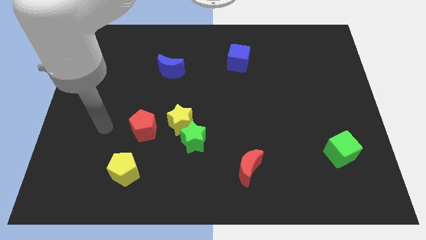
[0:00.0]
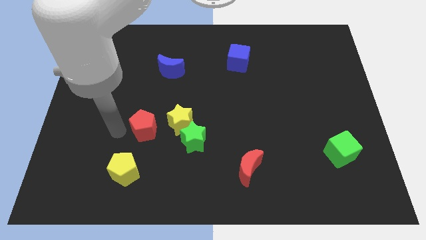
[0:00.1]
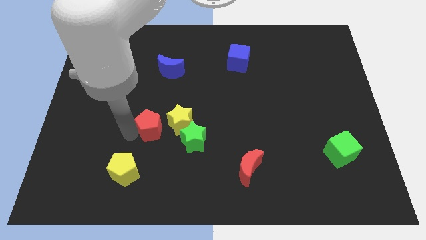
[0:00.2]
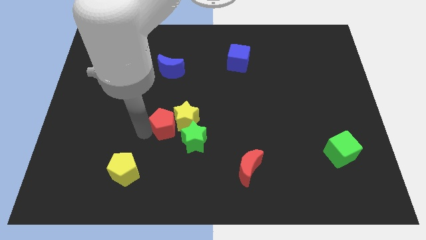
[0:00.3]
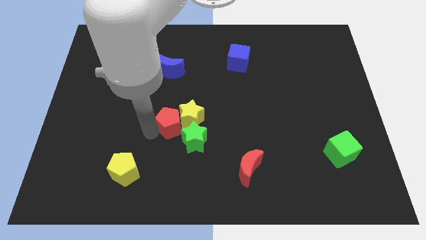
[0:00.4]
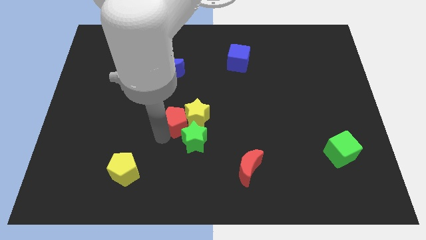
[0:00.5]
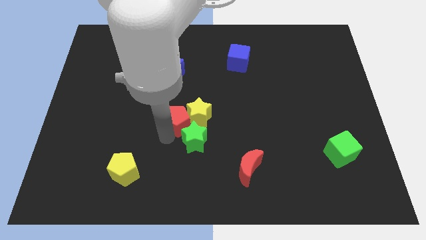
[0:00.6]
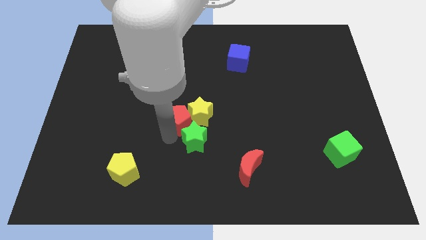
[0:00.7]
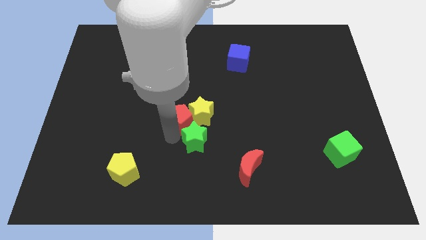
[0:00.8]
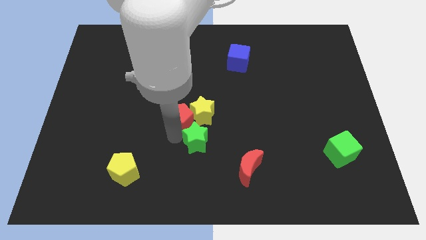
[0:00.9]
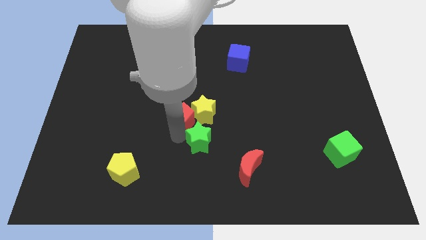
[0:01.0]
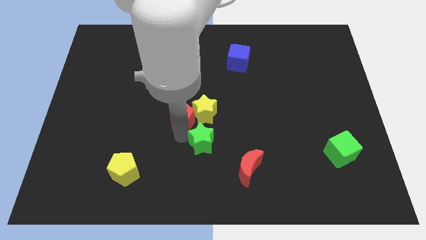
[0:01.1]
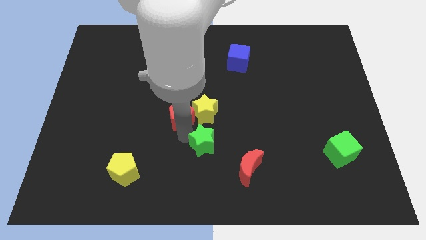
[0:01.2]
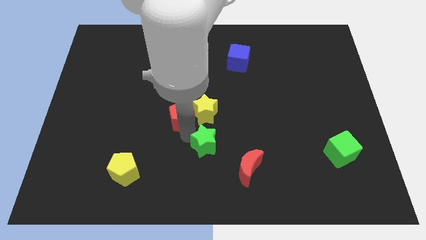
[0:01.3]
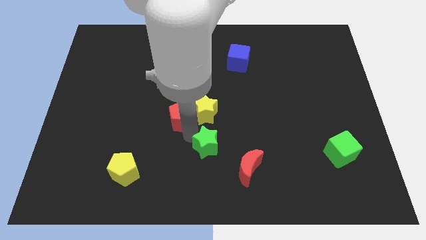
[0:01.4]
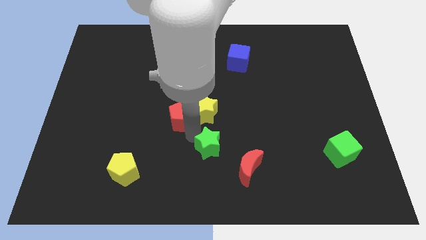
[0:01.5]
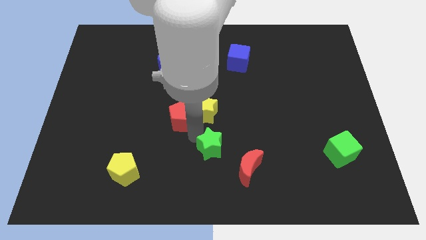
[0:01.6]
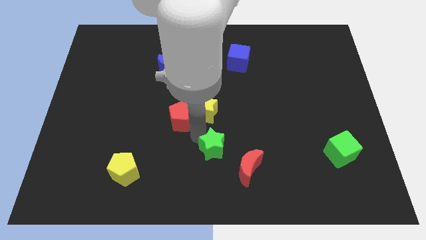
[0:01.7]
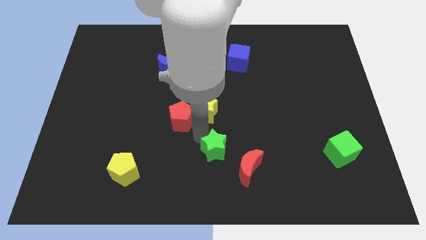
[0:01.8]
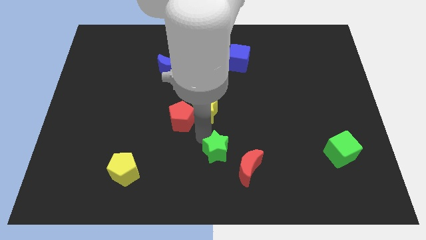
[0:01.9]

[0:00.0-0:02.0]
separate the green star from the yellow star

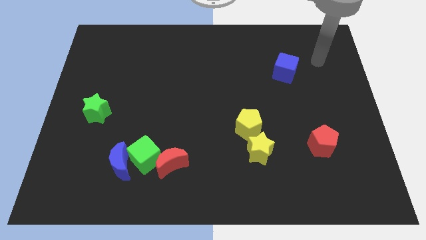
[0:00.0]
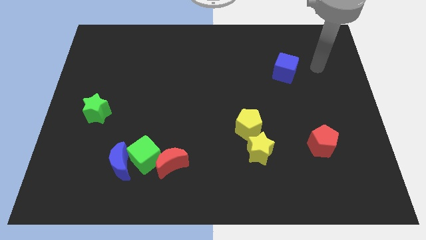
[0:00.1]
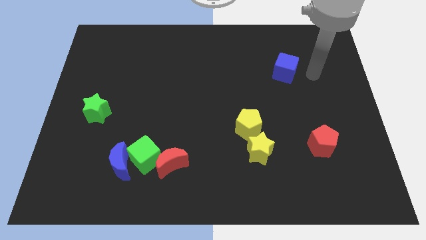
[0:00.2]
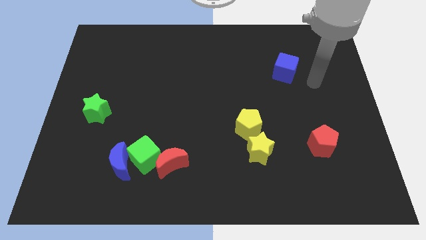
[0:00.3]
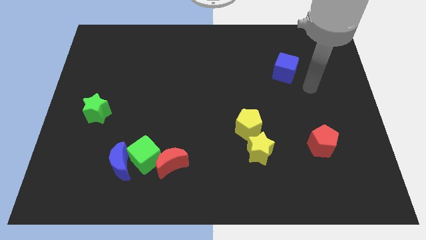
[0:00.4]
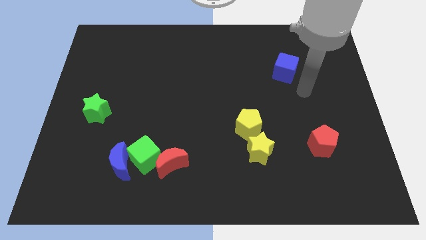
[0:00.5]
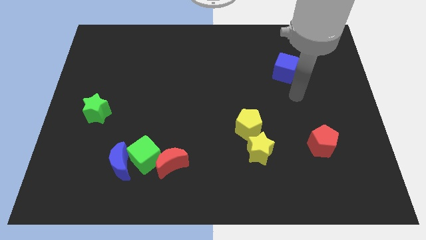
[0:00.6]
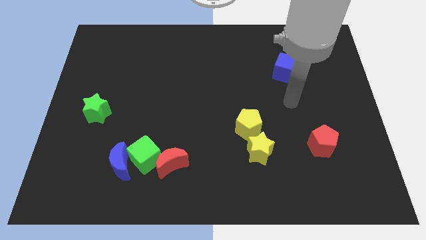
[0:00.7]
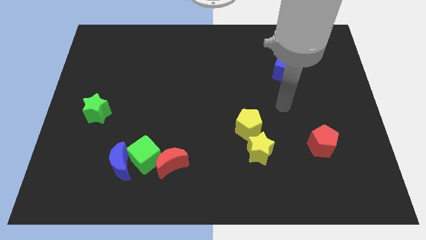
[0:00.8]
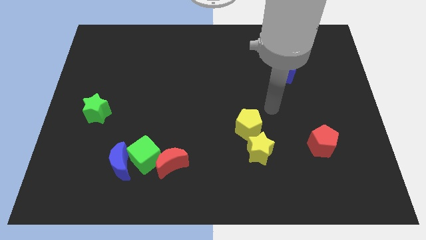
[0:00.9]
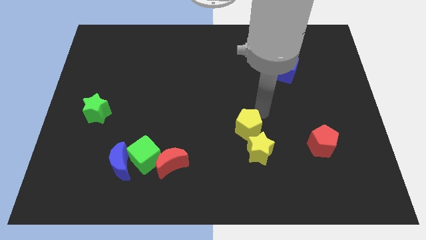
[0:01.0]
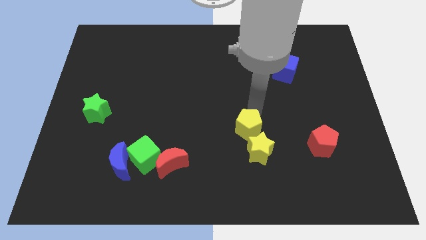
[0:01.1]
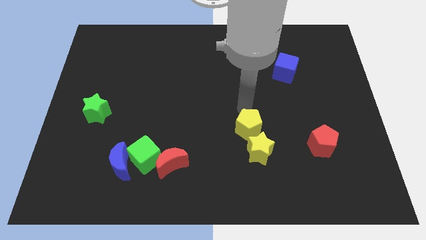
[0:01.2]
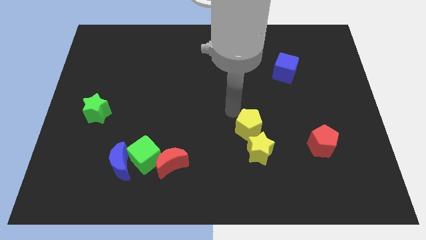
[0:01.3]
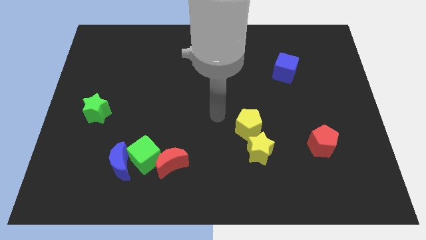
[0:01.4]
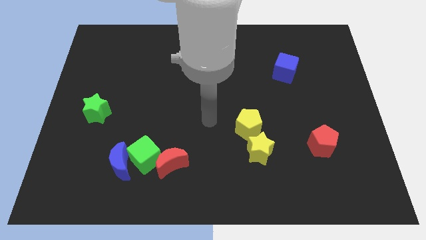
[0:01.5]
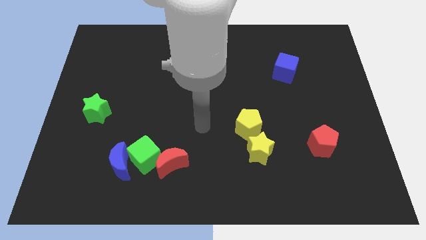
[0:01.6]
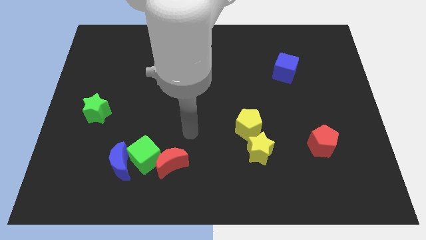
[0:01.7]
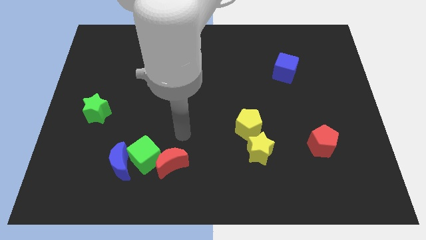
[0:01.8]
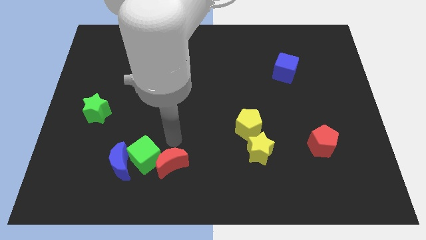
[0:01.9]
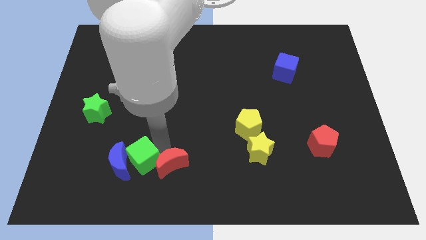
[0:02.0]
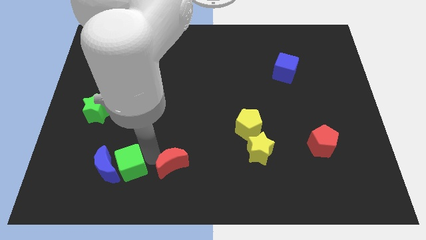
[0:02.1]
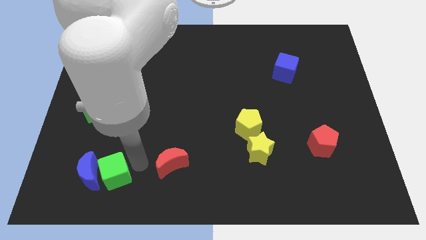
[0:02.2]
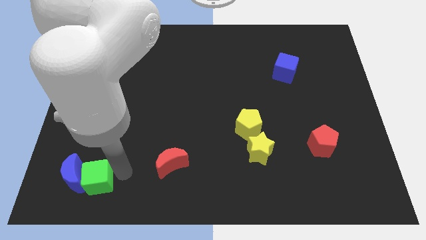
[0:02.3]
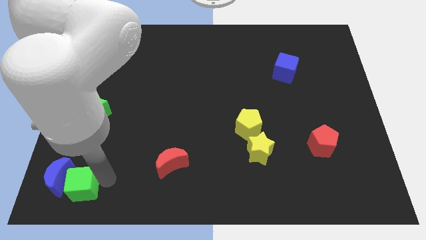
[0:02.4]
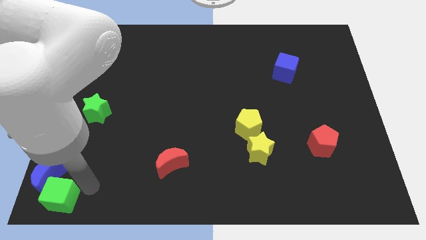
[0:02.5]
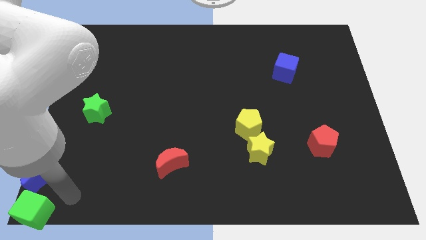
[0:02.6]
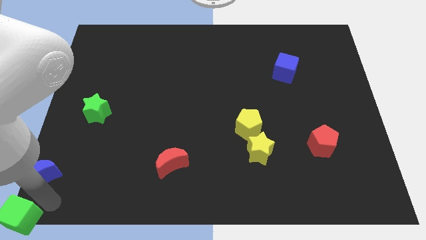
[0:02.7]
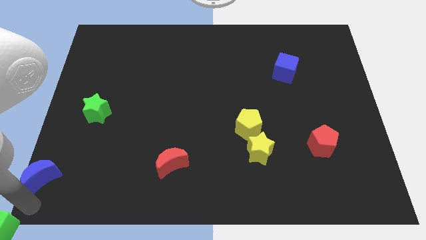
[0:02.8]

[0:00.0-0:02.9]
pull the blue moon apart from the green cube

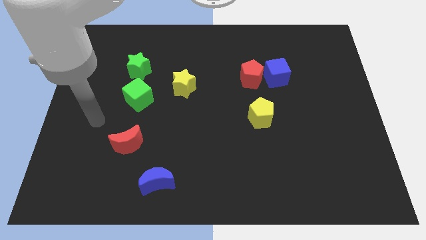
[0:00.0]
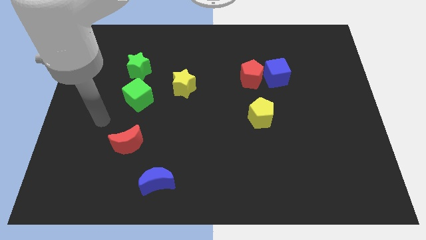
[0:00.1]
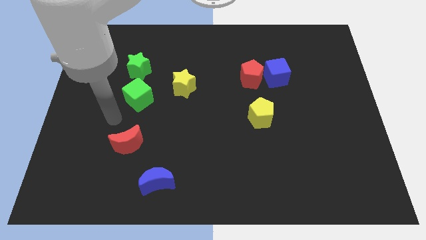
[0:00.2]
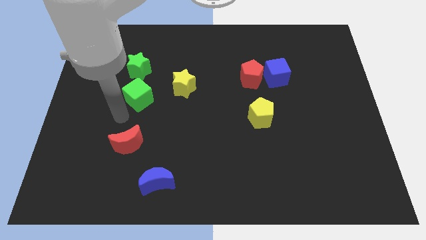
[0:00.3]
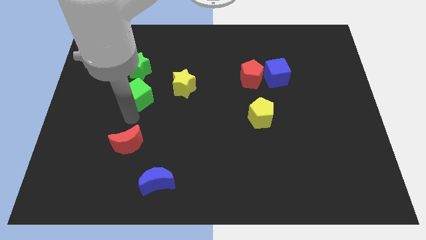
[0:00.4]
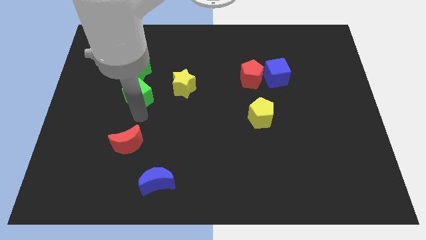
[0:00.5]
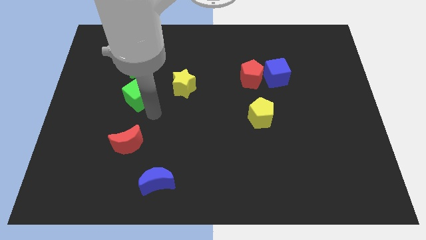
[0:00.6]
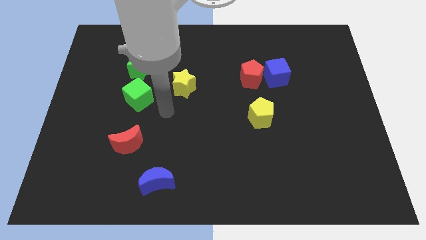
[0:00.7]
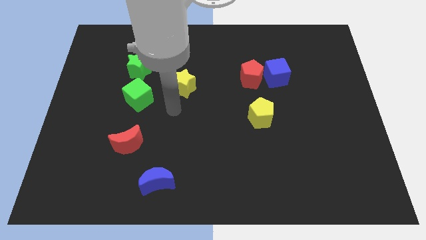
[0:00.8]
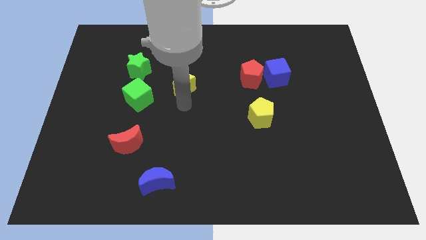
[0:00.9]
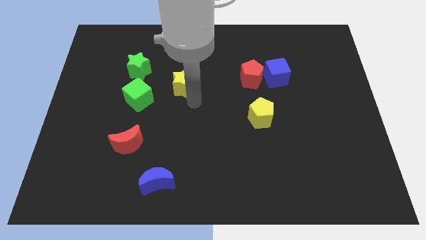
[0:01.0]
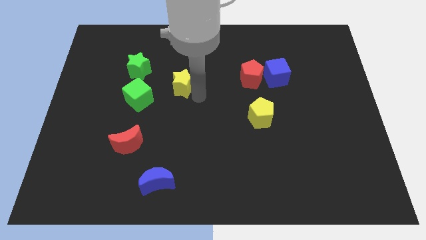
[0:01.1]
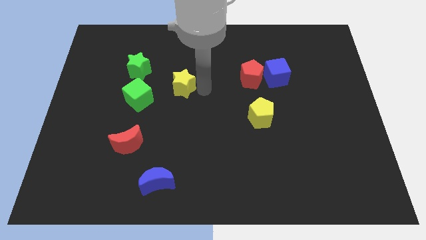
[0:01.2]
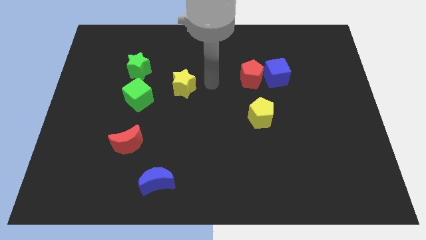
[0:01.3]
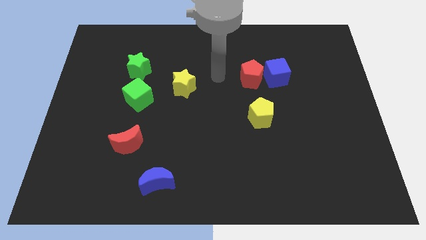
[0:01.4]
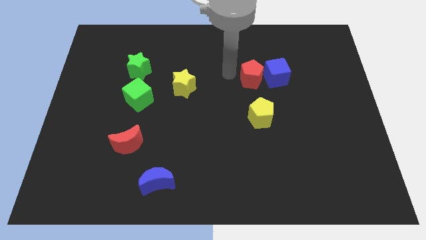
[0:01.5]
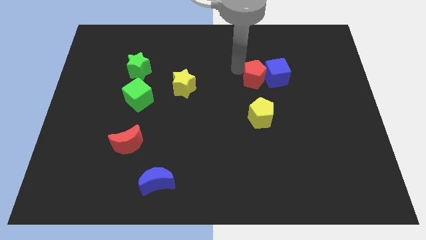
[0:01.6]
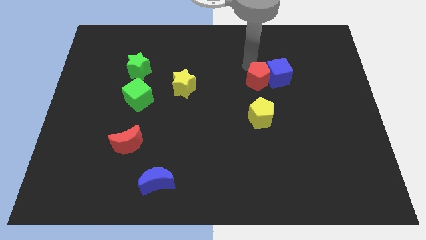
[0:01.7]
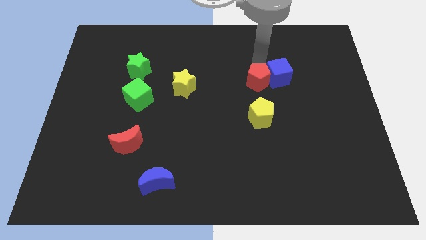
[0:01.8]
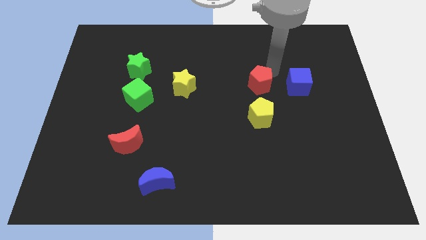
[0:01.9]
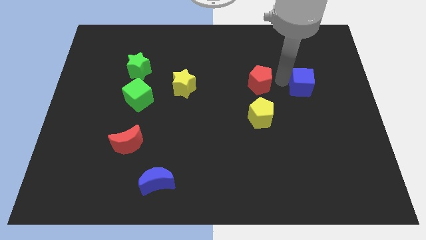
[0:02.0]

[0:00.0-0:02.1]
move the red pentagon away from the blue cube

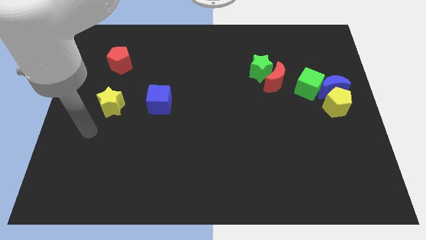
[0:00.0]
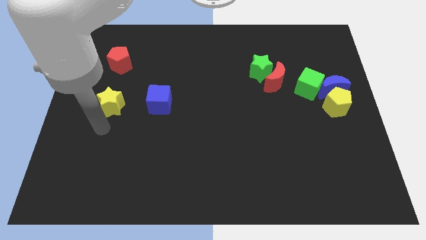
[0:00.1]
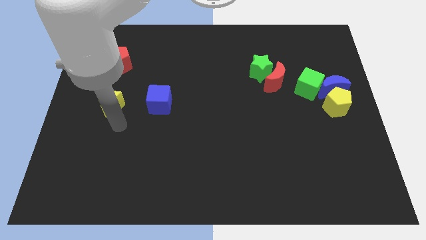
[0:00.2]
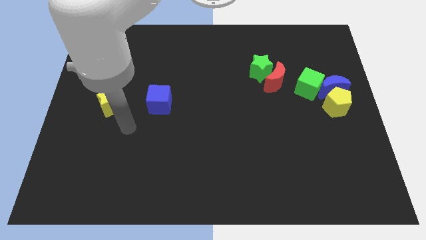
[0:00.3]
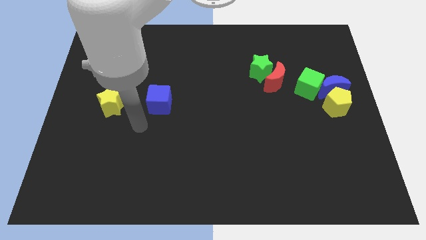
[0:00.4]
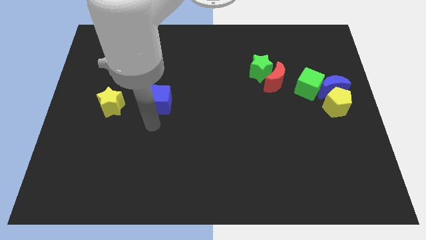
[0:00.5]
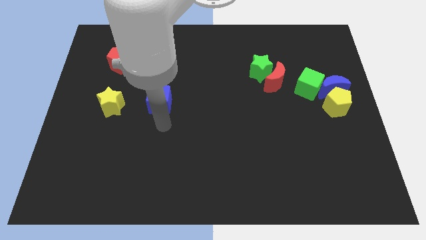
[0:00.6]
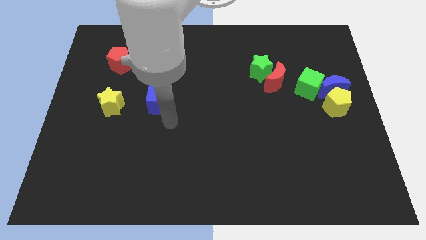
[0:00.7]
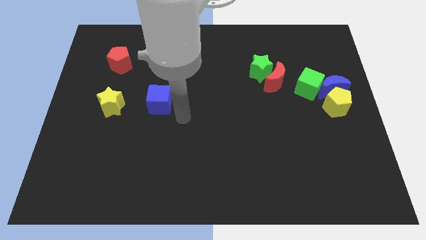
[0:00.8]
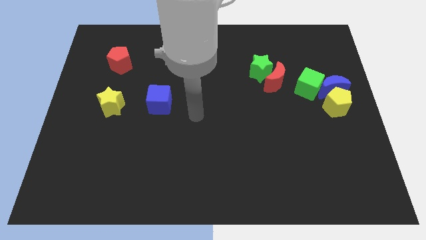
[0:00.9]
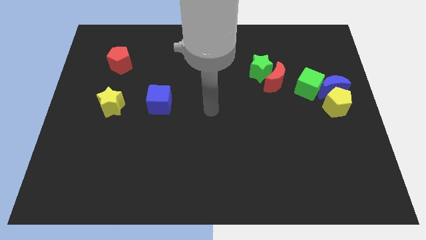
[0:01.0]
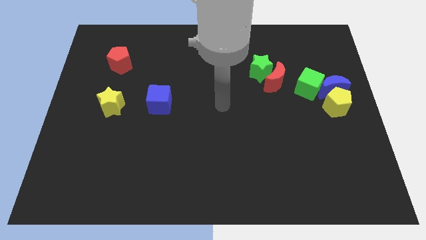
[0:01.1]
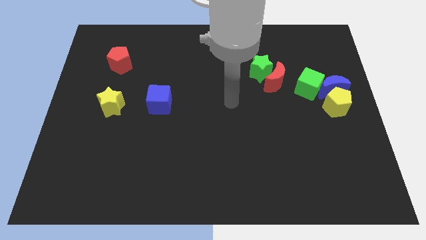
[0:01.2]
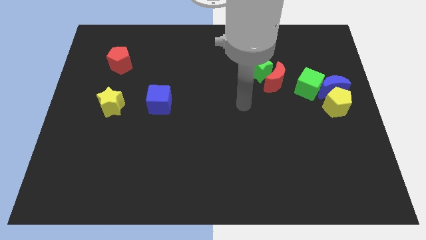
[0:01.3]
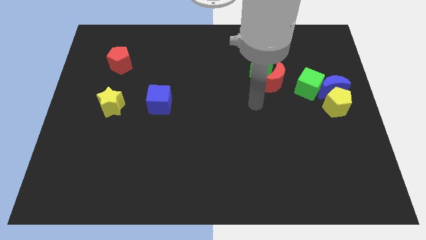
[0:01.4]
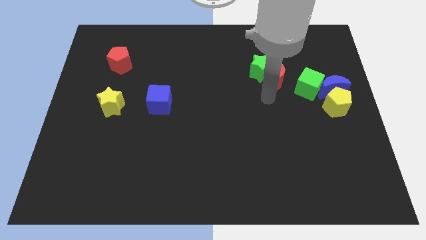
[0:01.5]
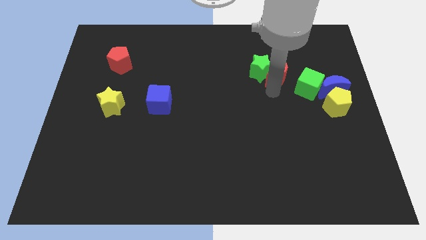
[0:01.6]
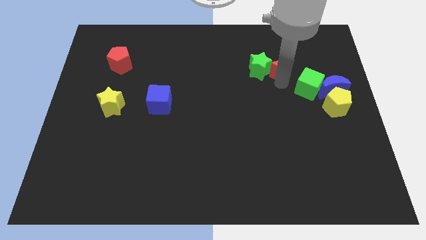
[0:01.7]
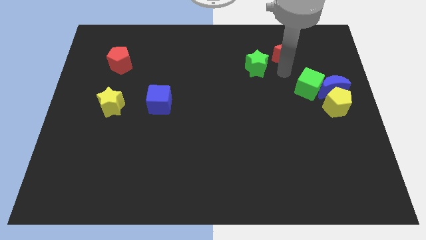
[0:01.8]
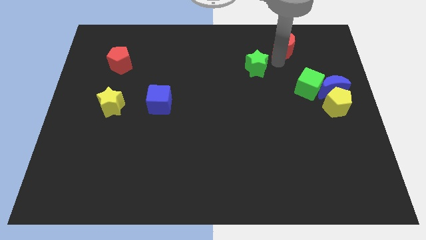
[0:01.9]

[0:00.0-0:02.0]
move the green star away from the red moon

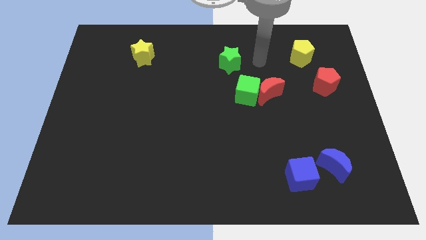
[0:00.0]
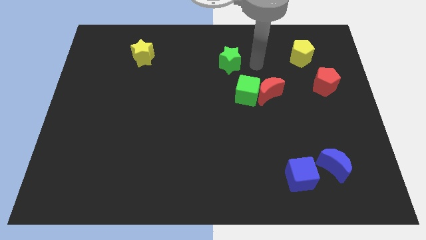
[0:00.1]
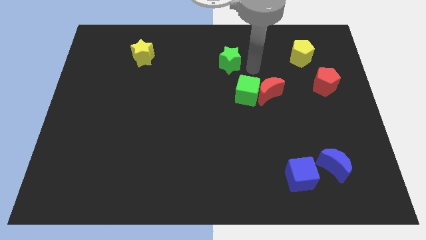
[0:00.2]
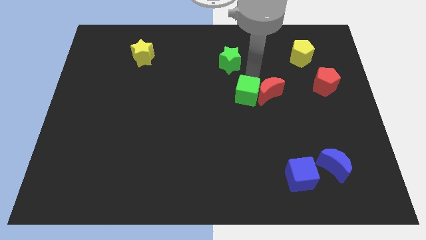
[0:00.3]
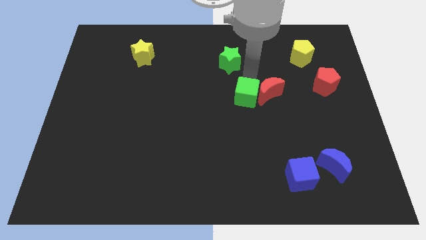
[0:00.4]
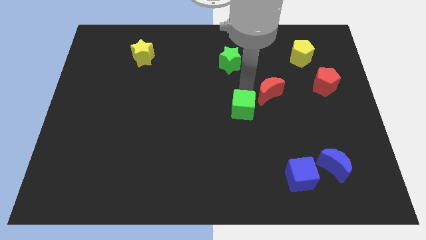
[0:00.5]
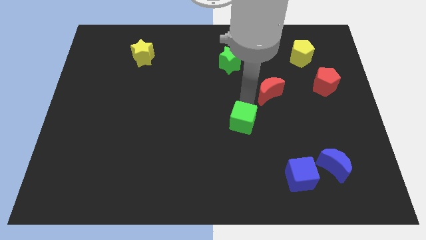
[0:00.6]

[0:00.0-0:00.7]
pull the red moon apart from the green cube
